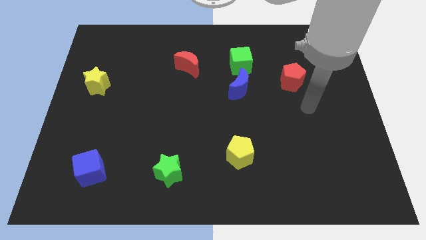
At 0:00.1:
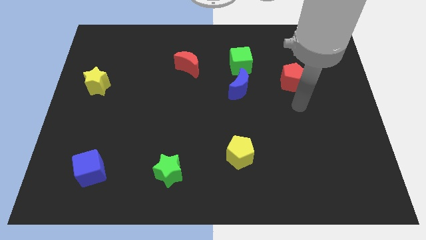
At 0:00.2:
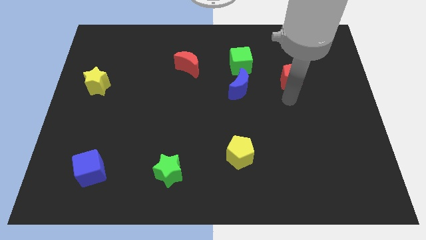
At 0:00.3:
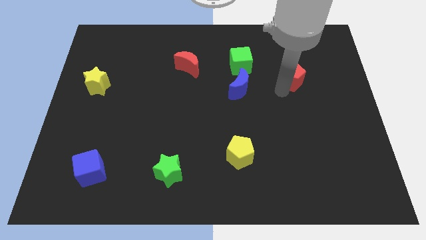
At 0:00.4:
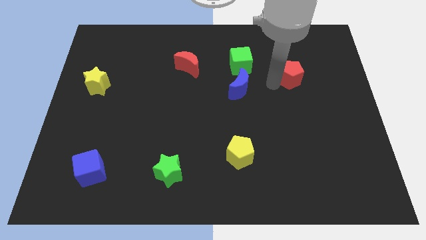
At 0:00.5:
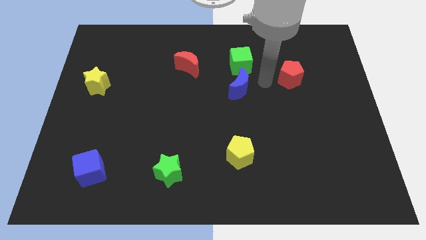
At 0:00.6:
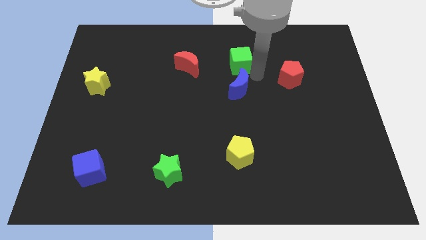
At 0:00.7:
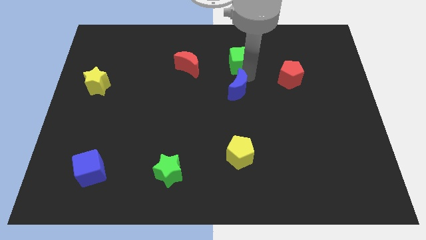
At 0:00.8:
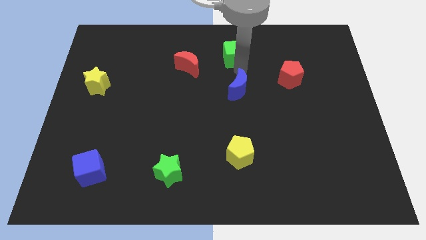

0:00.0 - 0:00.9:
separate the blue moon from the green cube

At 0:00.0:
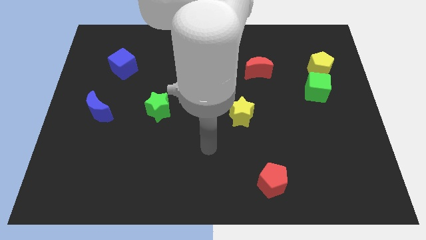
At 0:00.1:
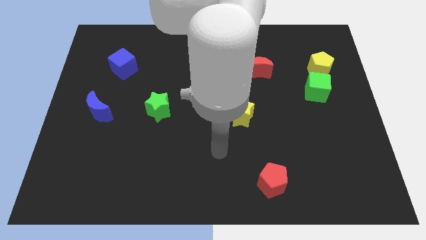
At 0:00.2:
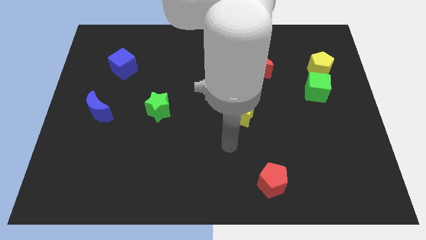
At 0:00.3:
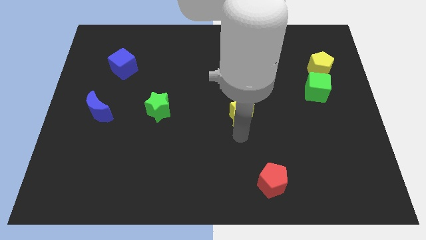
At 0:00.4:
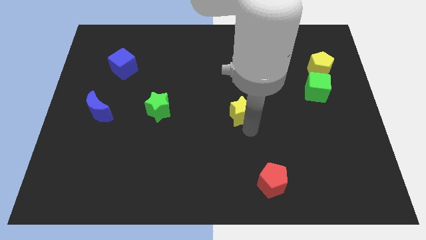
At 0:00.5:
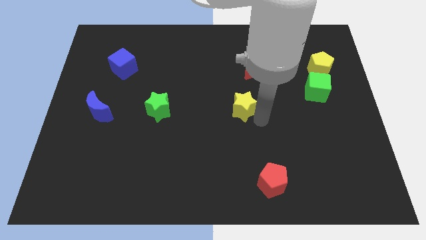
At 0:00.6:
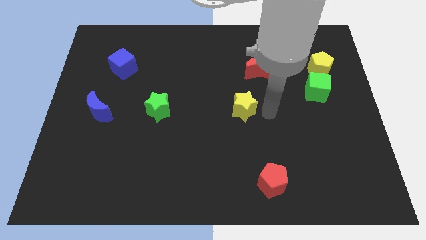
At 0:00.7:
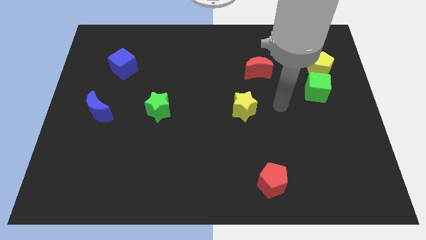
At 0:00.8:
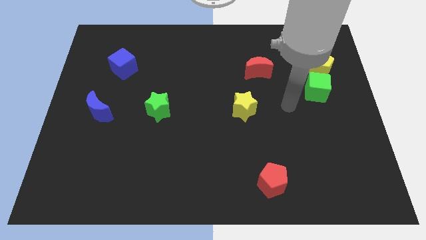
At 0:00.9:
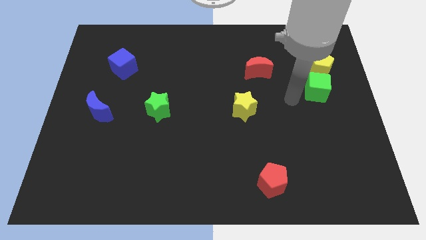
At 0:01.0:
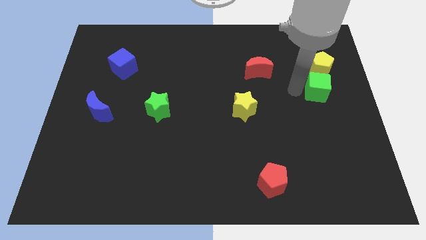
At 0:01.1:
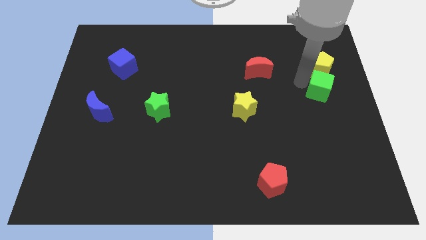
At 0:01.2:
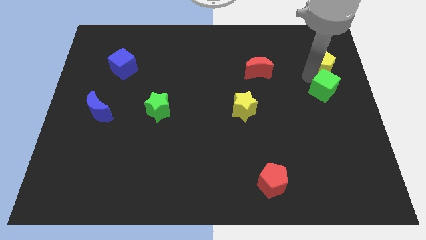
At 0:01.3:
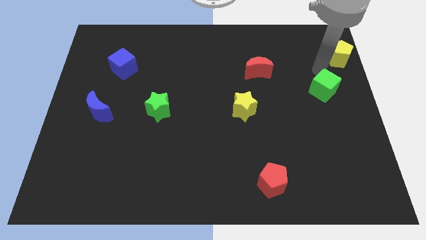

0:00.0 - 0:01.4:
separate the green cube from the yellow pentagon

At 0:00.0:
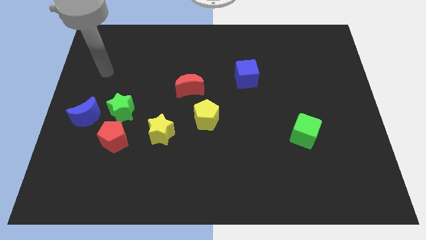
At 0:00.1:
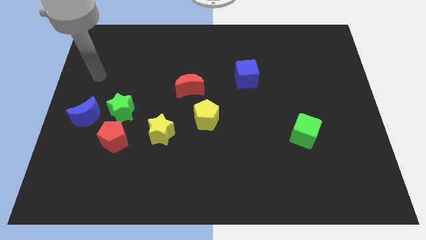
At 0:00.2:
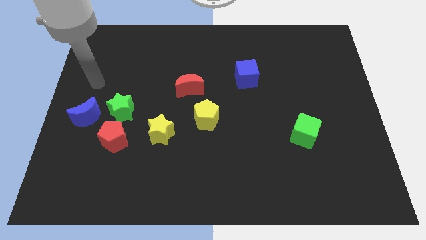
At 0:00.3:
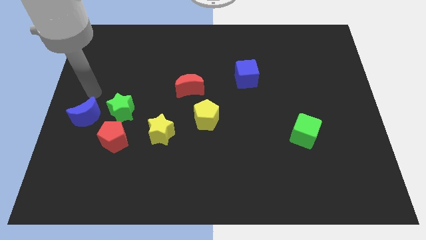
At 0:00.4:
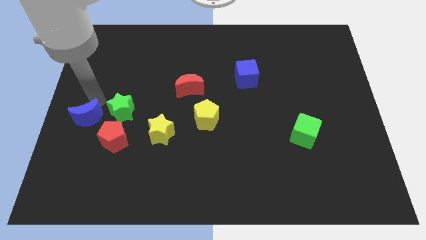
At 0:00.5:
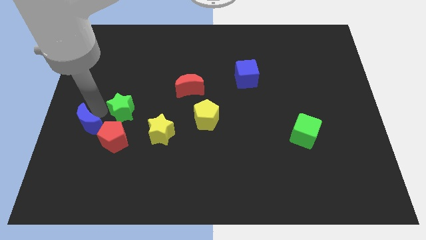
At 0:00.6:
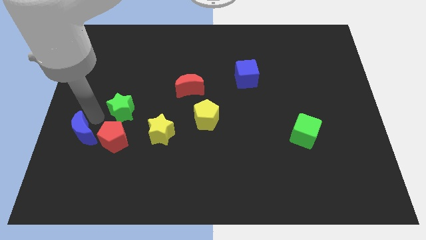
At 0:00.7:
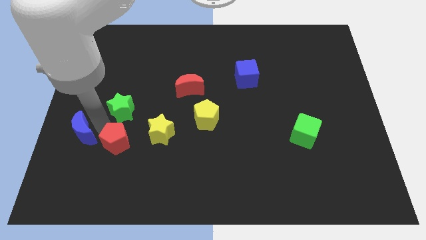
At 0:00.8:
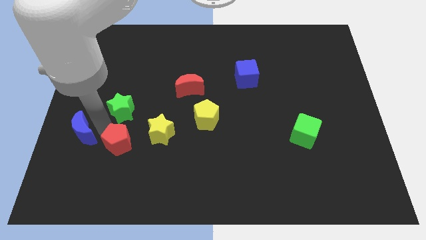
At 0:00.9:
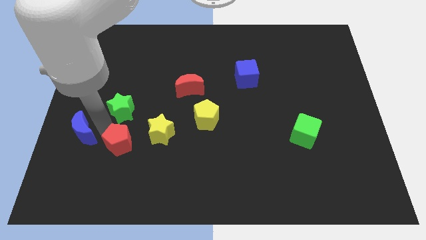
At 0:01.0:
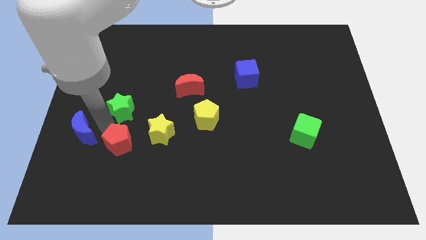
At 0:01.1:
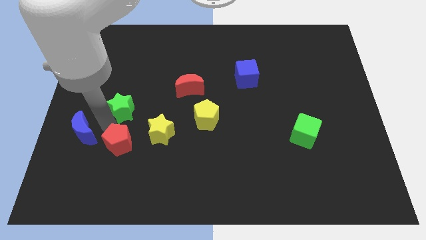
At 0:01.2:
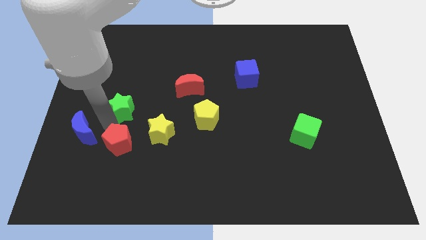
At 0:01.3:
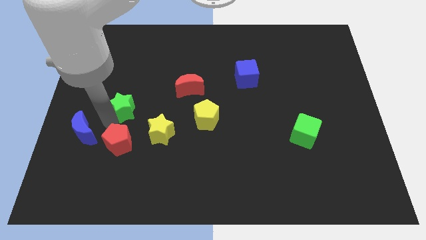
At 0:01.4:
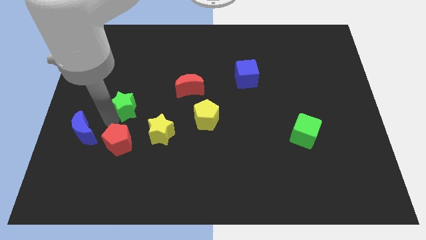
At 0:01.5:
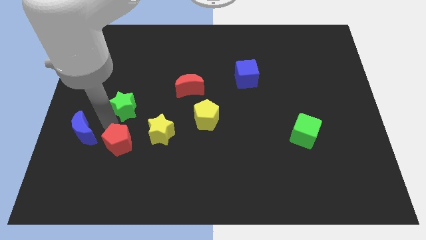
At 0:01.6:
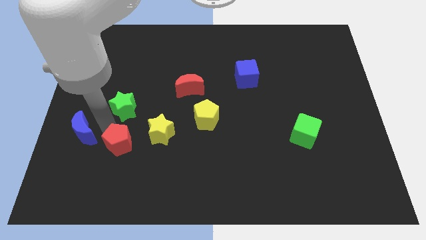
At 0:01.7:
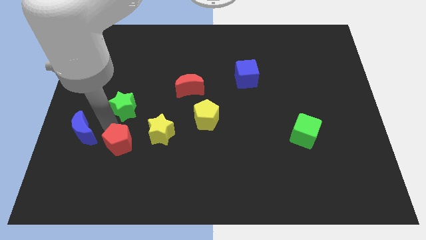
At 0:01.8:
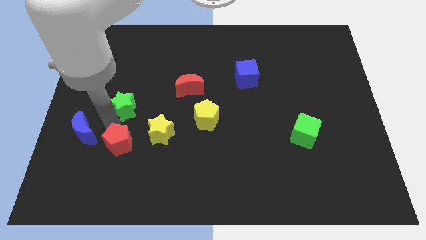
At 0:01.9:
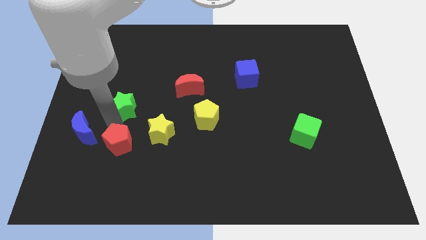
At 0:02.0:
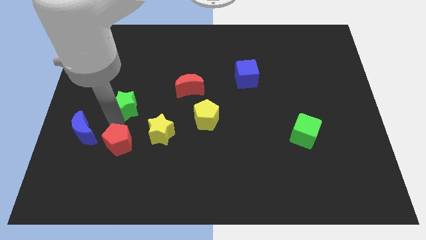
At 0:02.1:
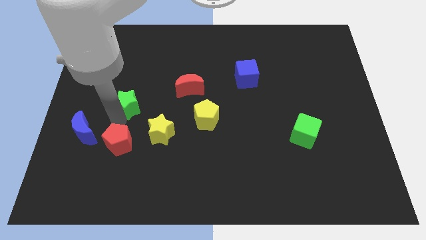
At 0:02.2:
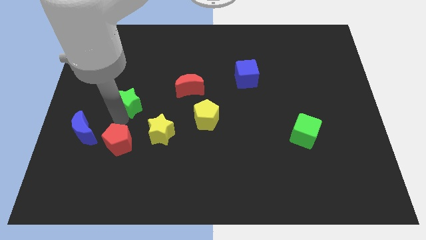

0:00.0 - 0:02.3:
separate the green star from the red pentagon and blue moon

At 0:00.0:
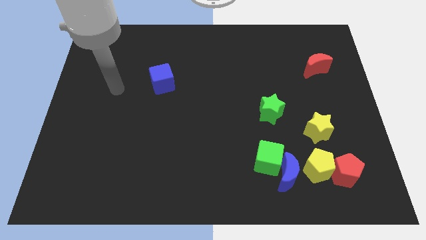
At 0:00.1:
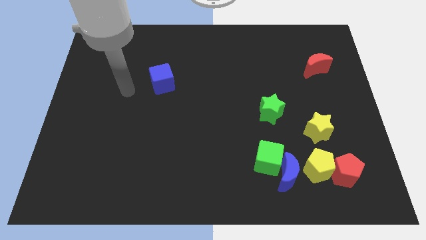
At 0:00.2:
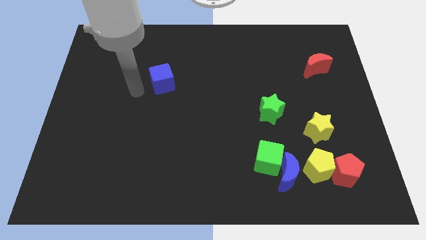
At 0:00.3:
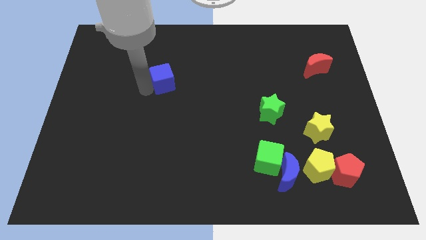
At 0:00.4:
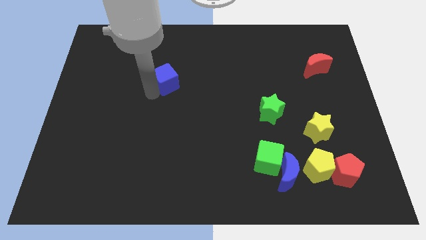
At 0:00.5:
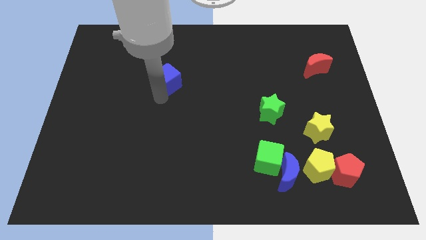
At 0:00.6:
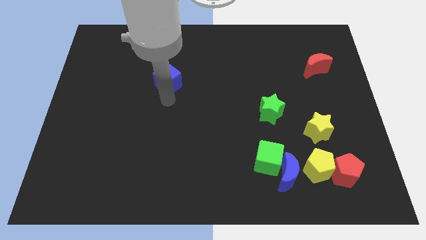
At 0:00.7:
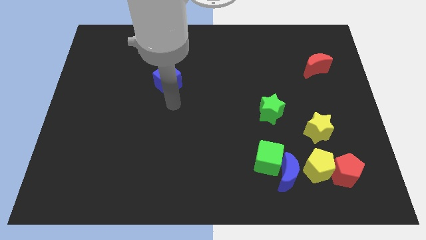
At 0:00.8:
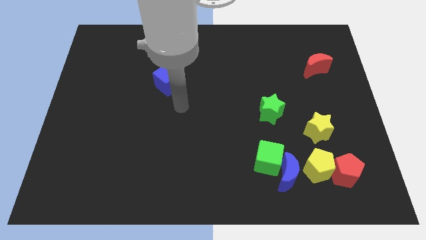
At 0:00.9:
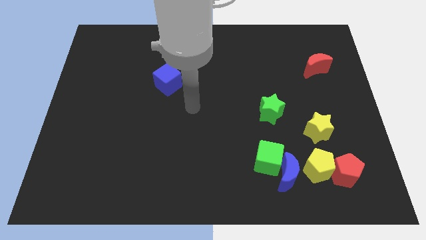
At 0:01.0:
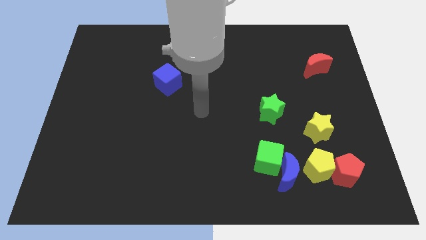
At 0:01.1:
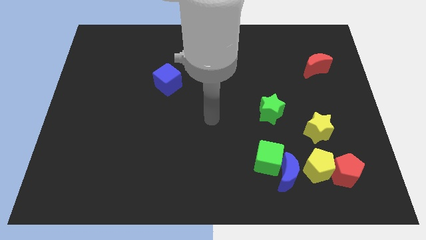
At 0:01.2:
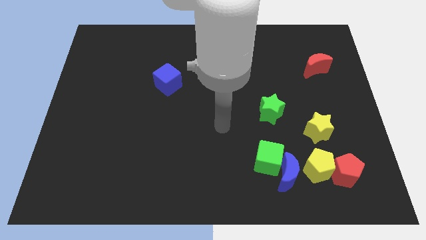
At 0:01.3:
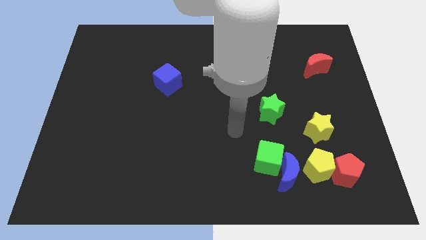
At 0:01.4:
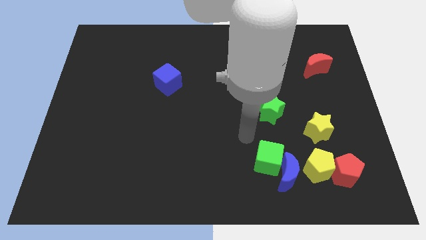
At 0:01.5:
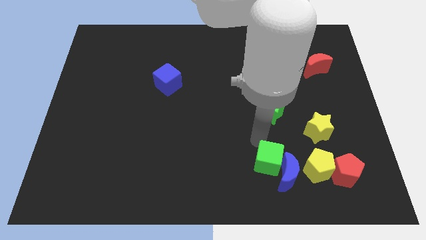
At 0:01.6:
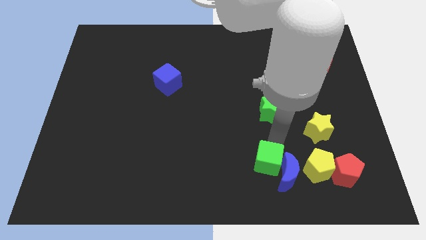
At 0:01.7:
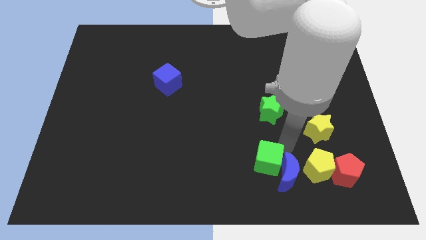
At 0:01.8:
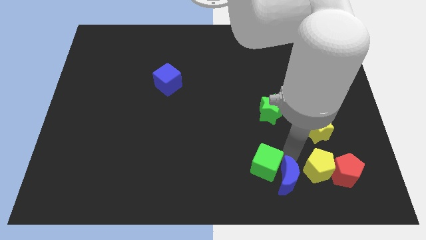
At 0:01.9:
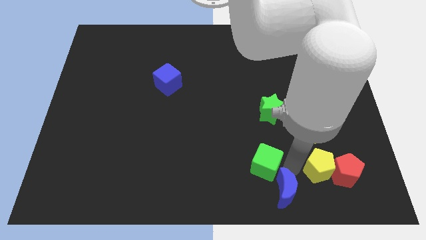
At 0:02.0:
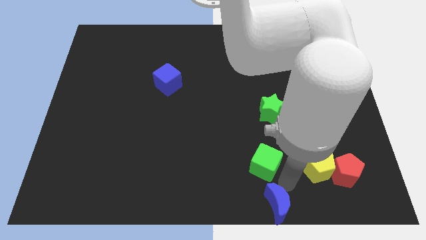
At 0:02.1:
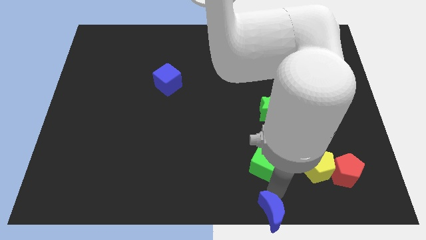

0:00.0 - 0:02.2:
move the green cube away from the blue moon

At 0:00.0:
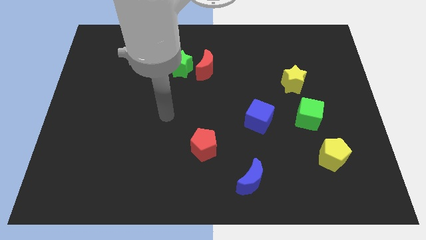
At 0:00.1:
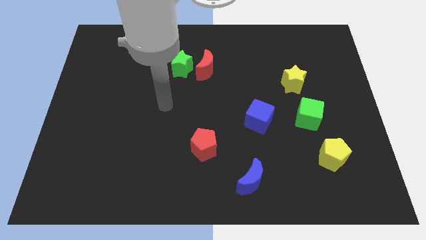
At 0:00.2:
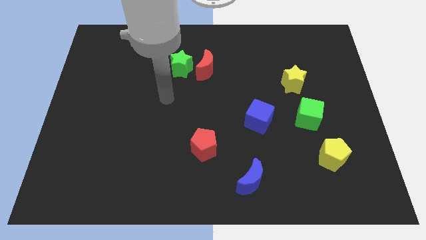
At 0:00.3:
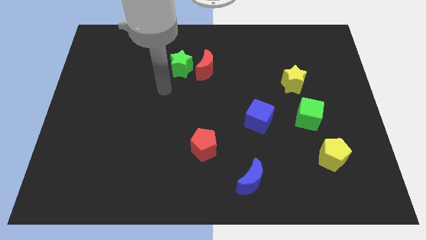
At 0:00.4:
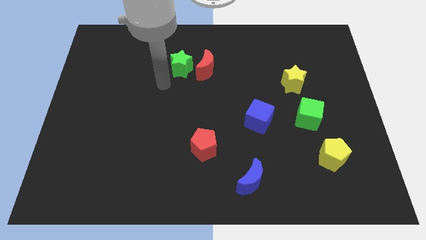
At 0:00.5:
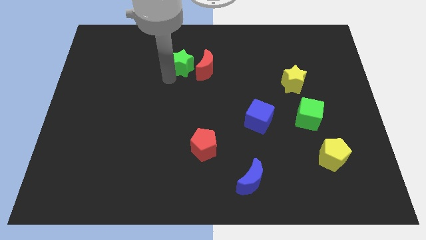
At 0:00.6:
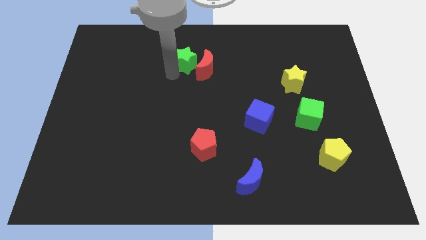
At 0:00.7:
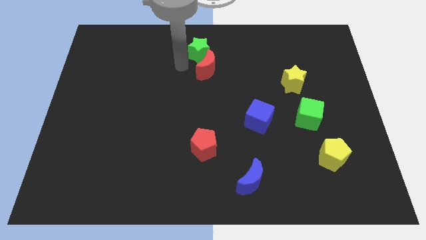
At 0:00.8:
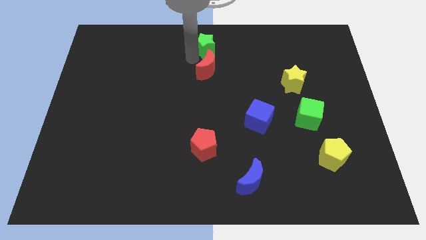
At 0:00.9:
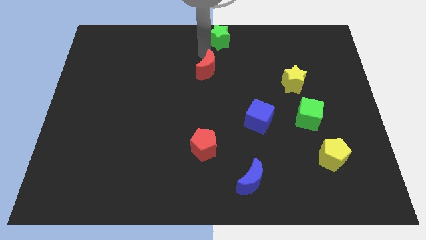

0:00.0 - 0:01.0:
move the red moon away from the green star

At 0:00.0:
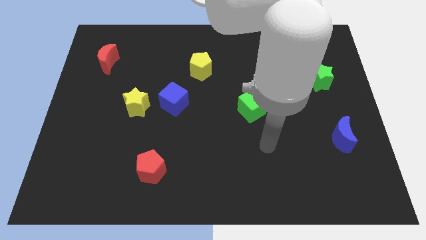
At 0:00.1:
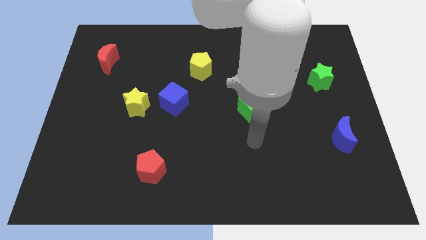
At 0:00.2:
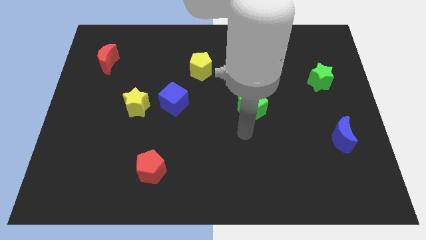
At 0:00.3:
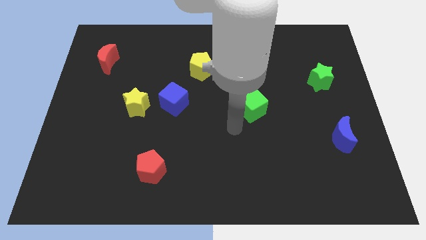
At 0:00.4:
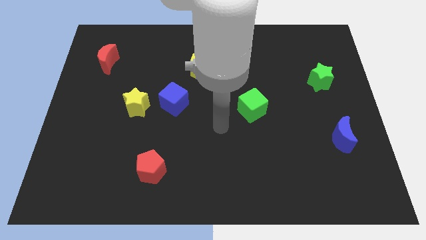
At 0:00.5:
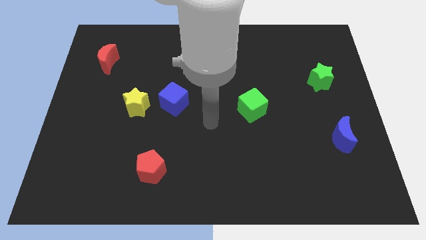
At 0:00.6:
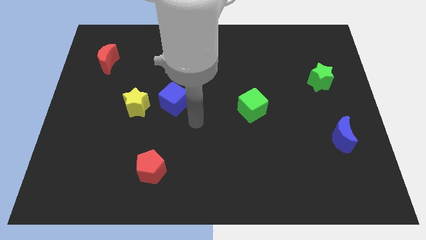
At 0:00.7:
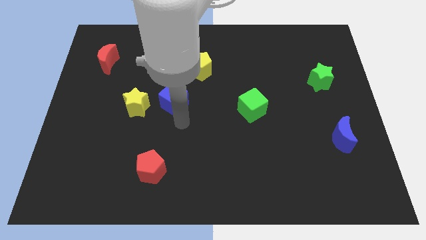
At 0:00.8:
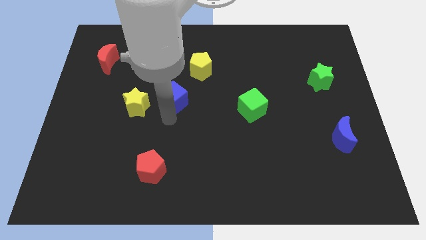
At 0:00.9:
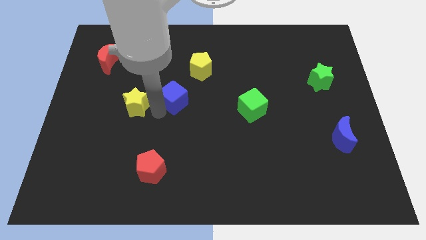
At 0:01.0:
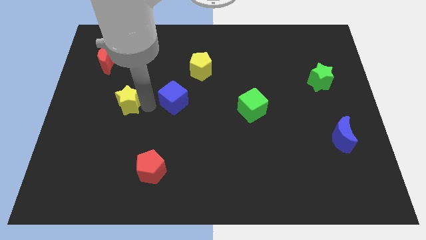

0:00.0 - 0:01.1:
pull the blue cube apart from the yellow star

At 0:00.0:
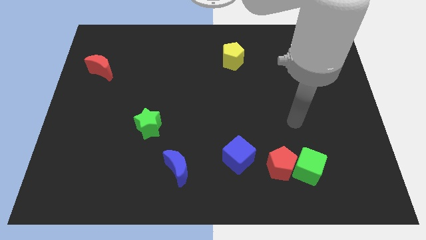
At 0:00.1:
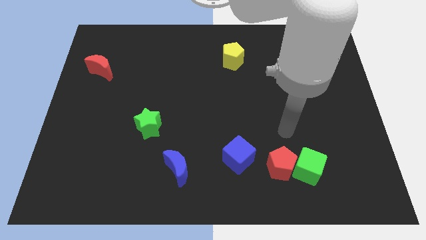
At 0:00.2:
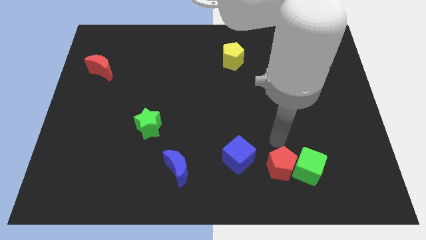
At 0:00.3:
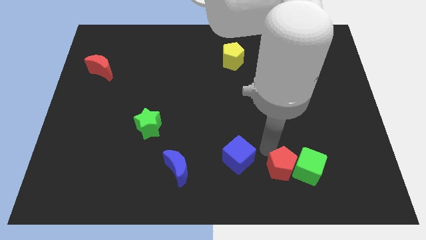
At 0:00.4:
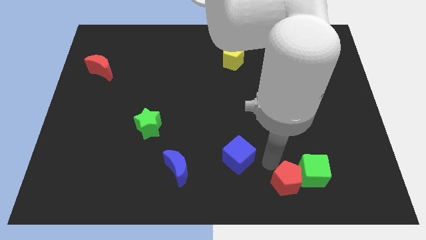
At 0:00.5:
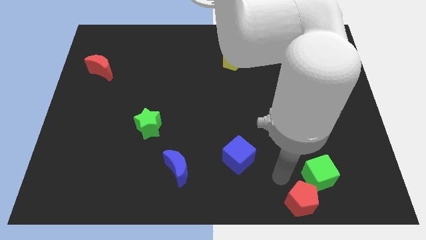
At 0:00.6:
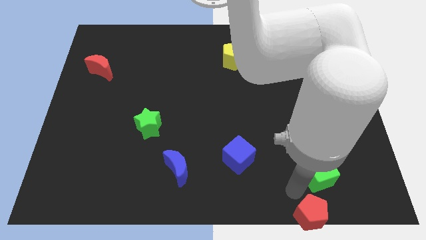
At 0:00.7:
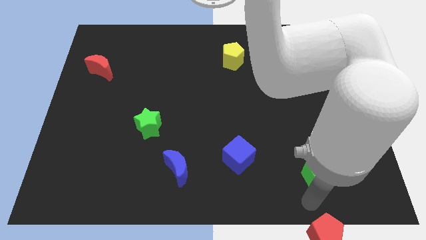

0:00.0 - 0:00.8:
pull the green cube apart from the red pentagon
